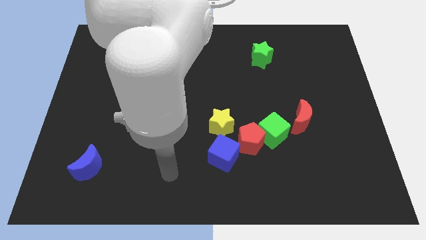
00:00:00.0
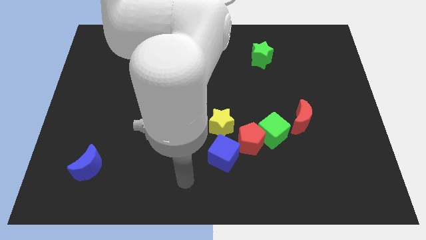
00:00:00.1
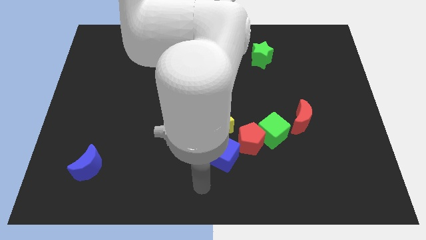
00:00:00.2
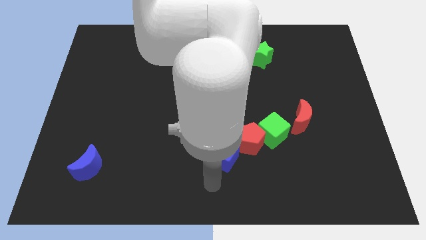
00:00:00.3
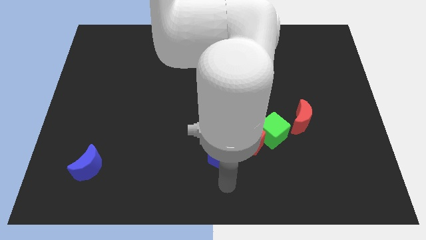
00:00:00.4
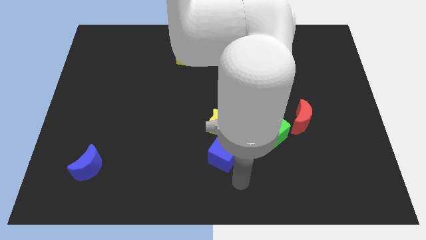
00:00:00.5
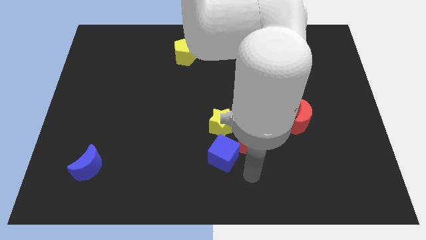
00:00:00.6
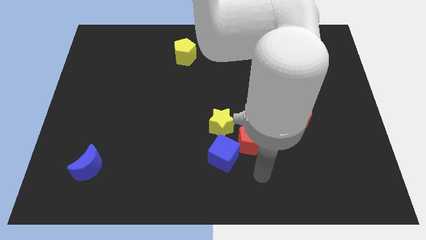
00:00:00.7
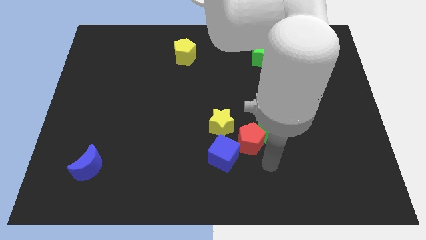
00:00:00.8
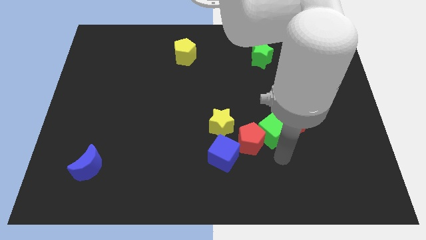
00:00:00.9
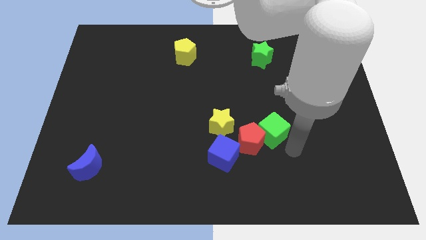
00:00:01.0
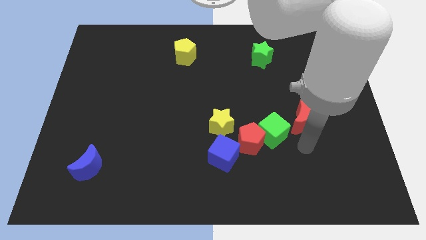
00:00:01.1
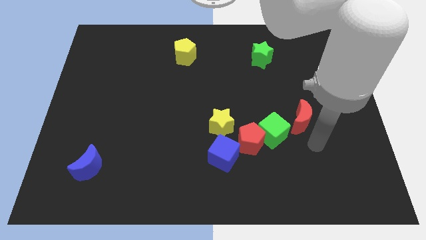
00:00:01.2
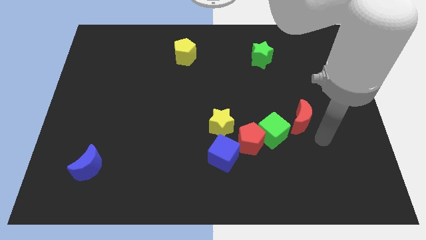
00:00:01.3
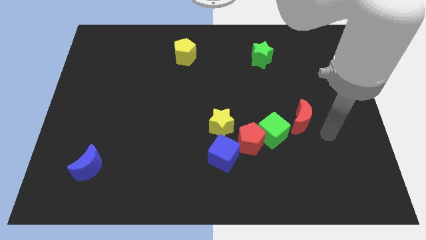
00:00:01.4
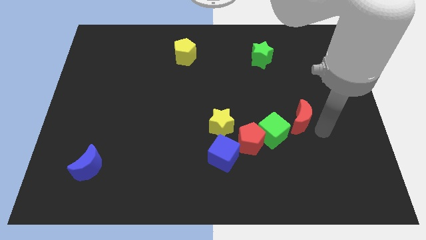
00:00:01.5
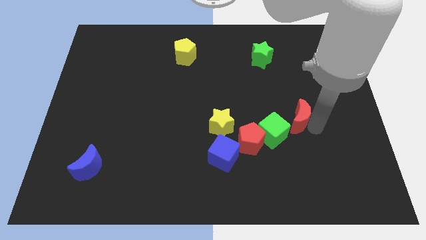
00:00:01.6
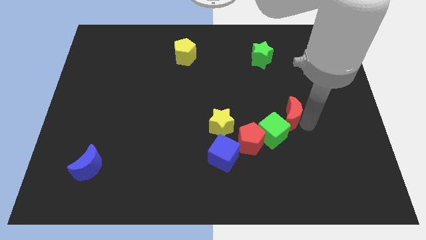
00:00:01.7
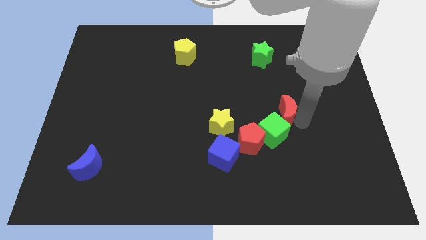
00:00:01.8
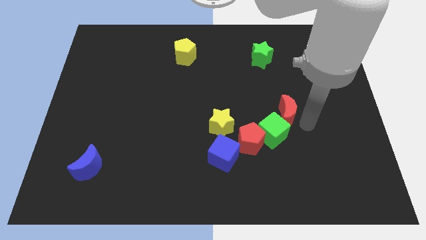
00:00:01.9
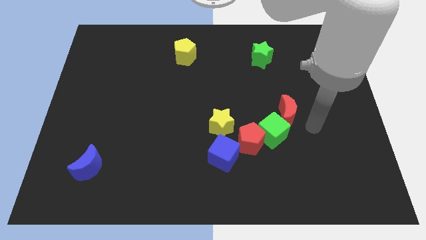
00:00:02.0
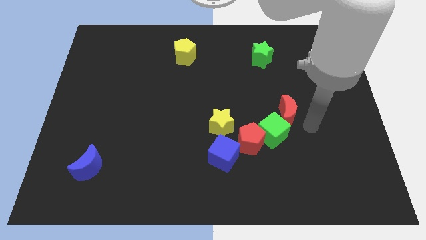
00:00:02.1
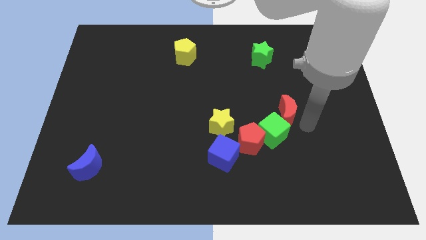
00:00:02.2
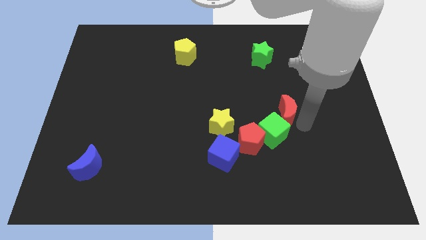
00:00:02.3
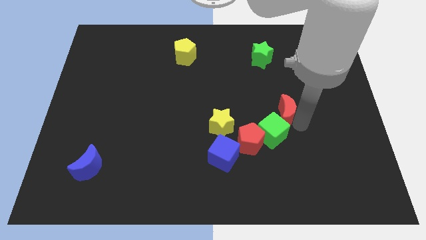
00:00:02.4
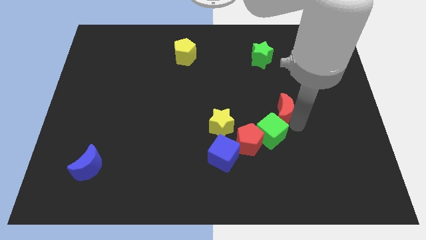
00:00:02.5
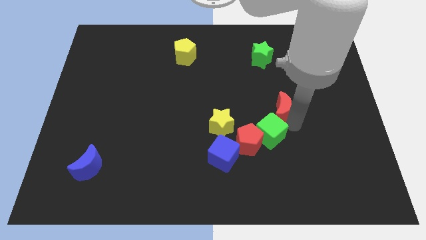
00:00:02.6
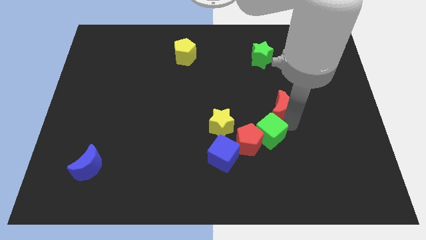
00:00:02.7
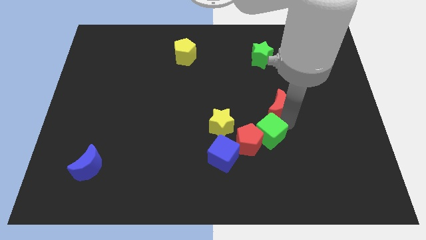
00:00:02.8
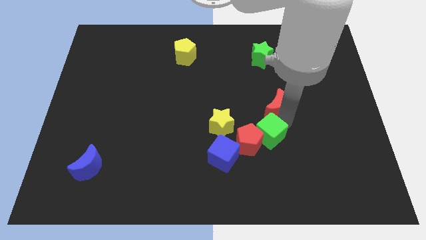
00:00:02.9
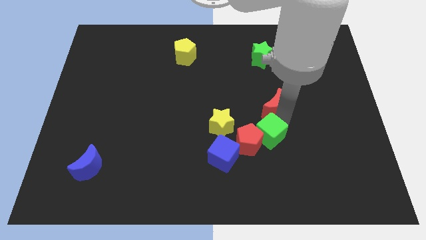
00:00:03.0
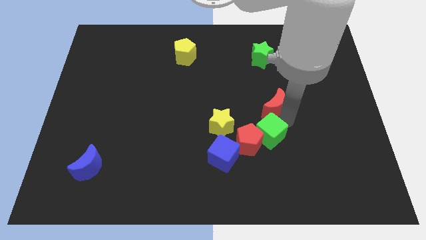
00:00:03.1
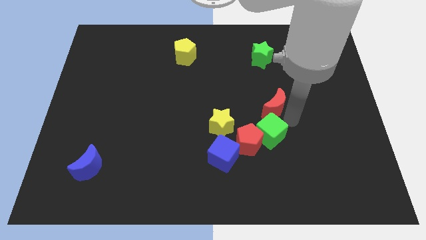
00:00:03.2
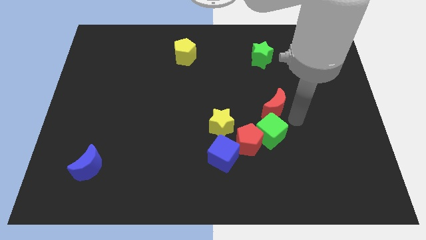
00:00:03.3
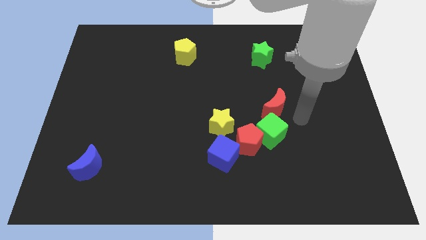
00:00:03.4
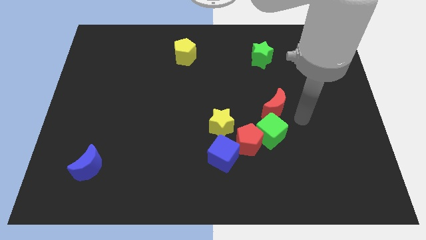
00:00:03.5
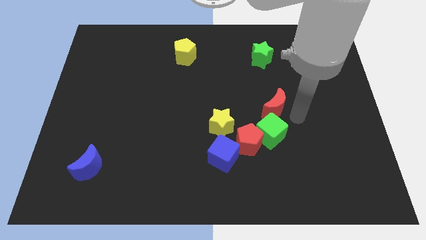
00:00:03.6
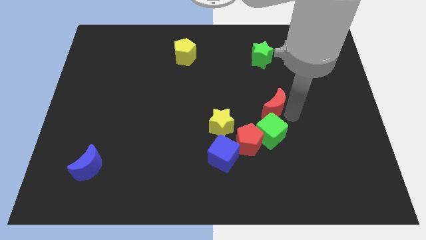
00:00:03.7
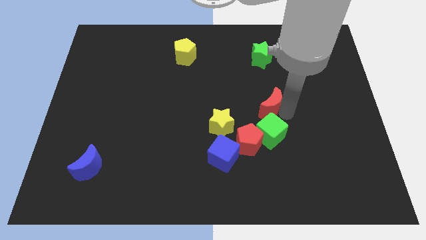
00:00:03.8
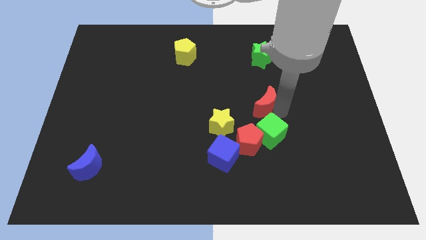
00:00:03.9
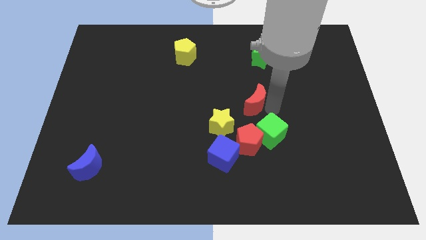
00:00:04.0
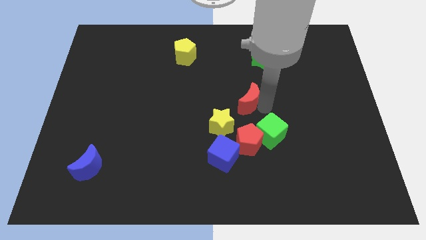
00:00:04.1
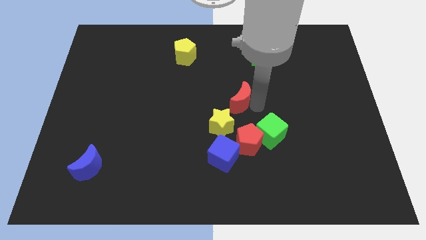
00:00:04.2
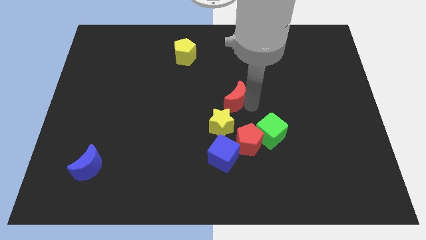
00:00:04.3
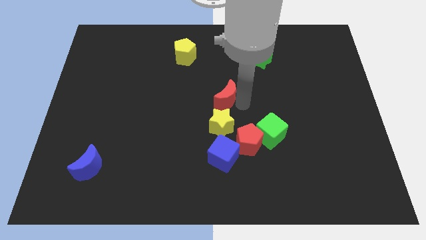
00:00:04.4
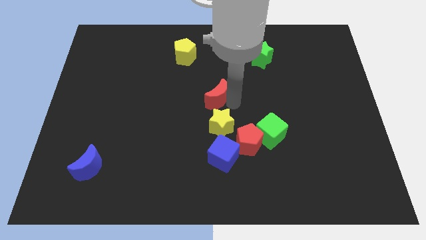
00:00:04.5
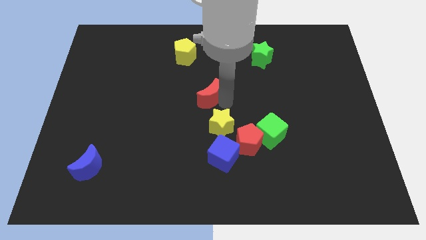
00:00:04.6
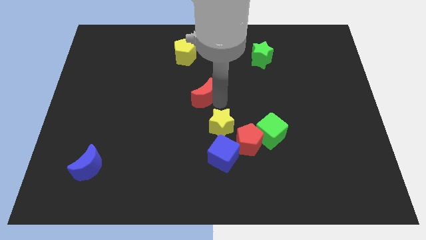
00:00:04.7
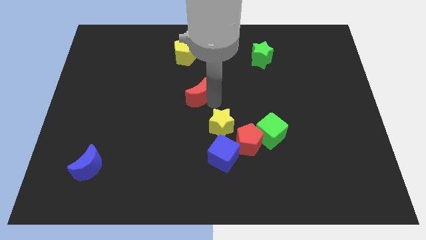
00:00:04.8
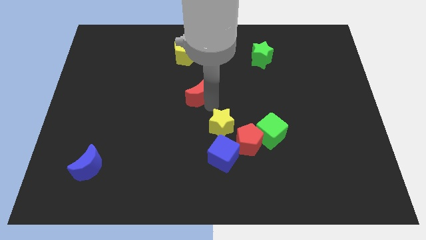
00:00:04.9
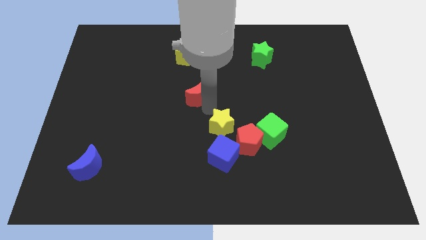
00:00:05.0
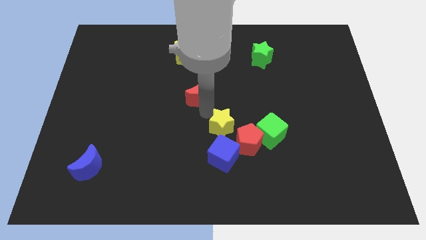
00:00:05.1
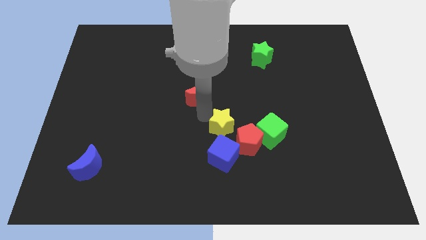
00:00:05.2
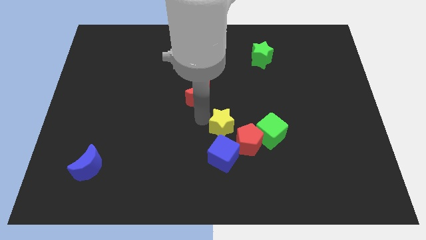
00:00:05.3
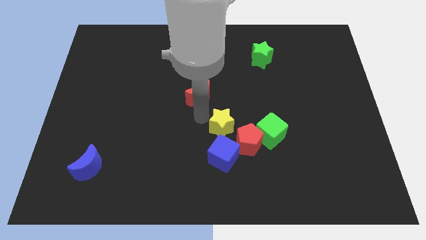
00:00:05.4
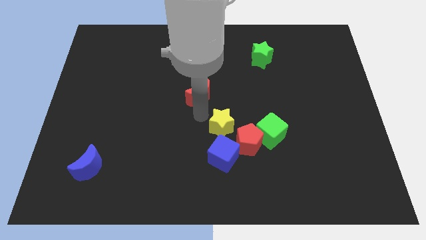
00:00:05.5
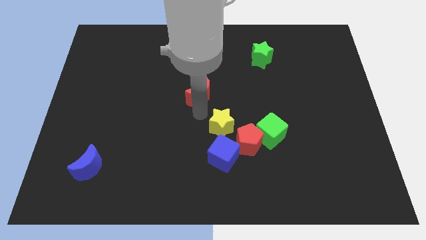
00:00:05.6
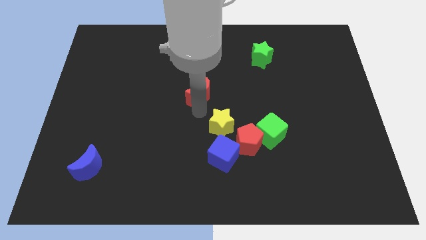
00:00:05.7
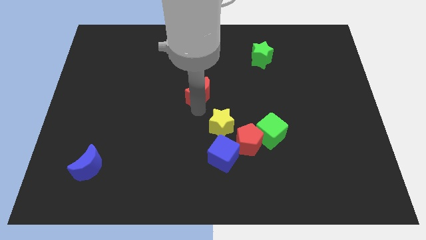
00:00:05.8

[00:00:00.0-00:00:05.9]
push the red moon to the bottom side of the yellow pentagon

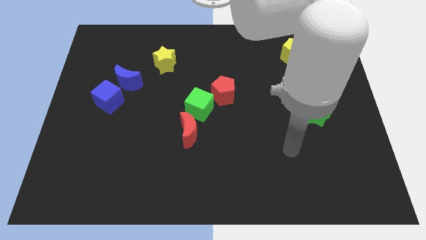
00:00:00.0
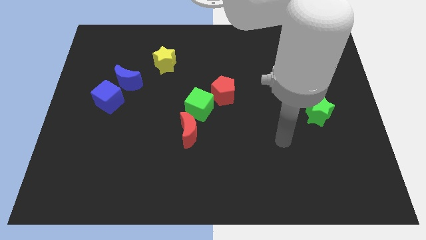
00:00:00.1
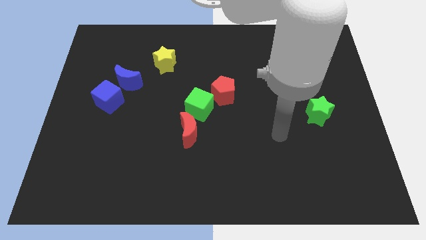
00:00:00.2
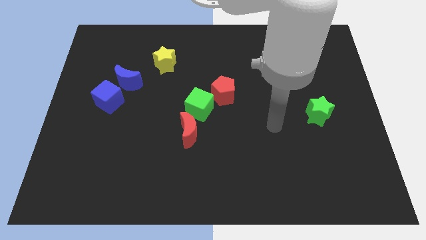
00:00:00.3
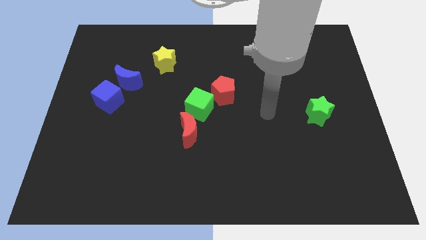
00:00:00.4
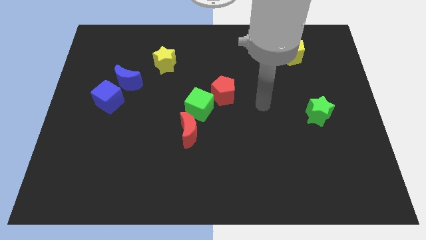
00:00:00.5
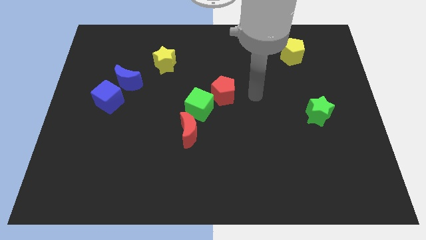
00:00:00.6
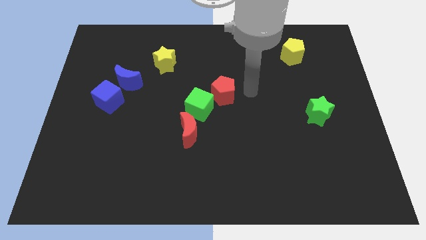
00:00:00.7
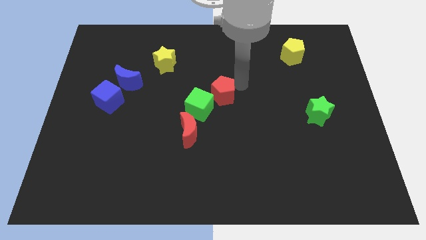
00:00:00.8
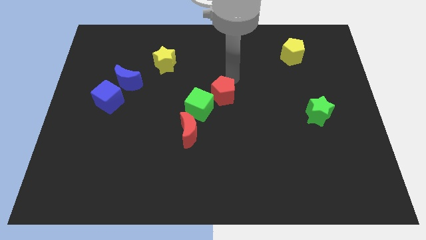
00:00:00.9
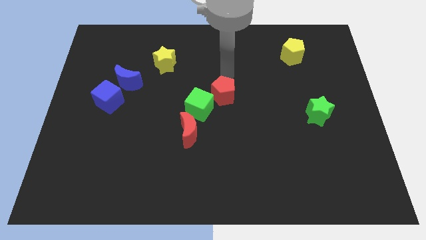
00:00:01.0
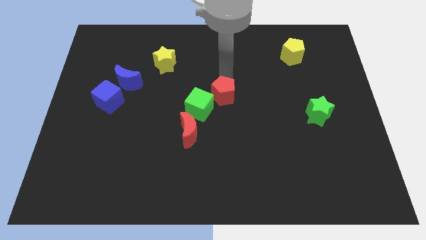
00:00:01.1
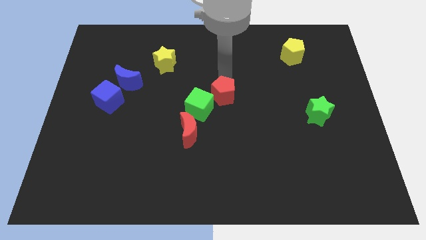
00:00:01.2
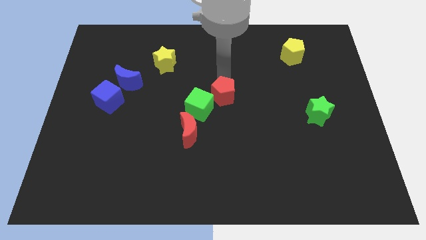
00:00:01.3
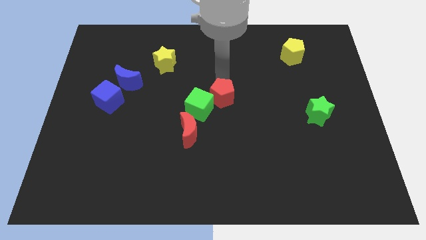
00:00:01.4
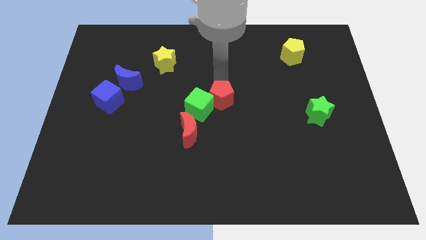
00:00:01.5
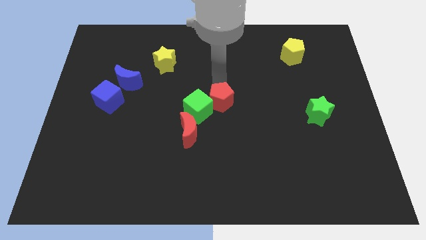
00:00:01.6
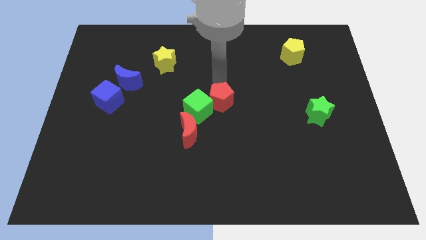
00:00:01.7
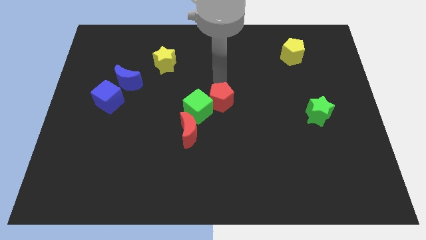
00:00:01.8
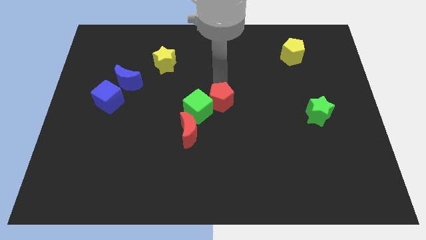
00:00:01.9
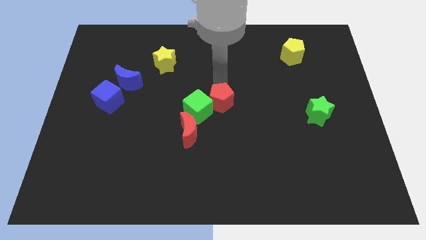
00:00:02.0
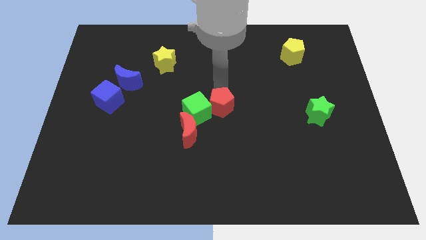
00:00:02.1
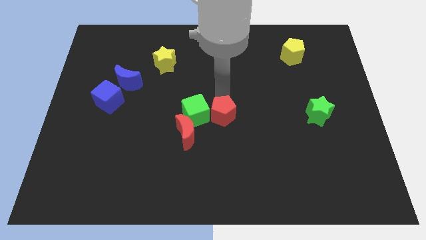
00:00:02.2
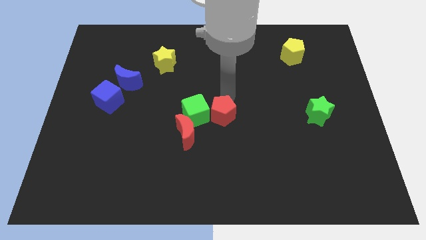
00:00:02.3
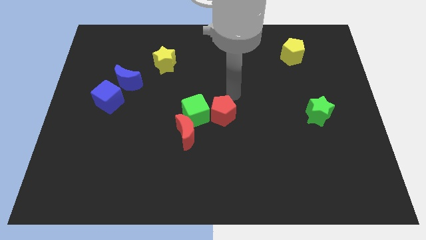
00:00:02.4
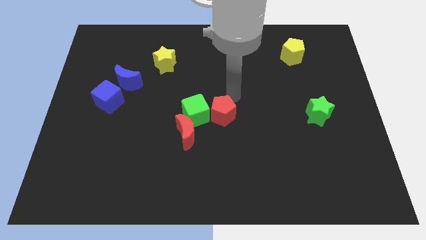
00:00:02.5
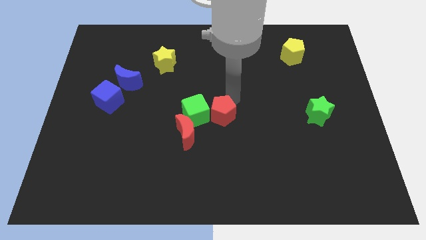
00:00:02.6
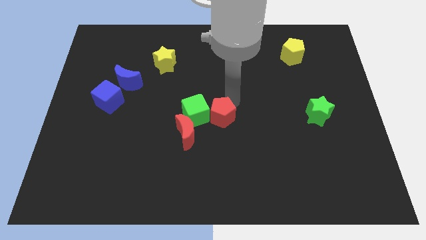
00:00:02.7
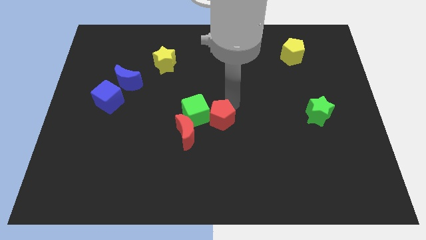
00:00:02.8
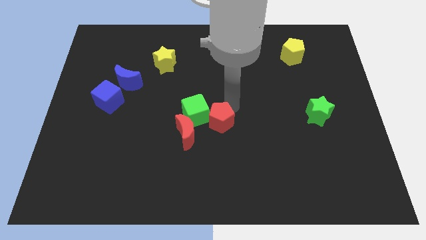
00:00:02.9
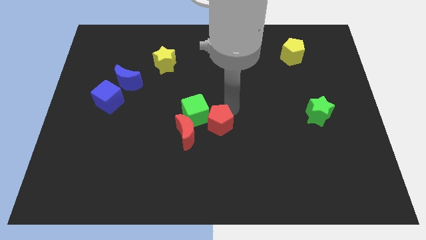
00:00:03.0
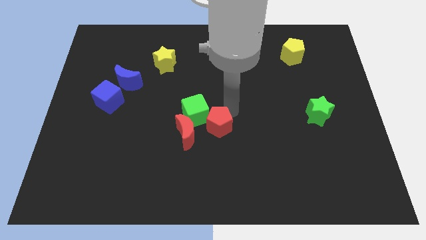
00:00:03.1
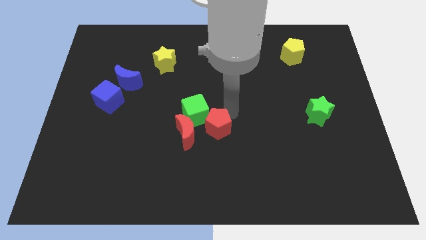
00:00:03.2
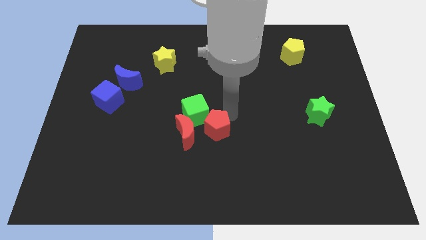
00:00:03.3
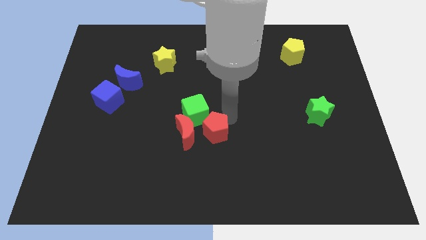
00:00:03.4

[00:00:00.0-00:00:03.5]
move the red pentagon to the bottom of the green cube
